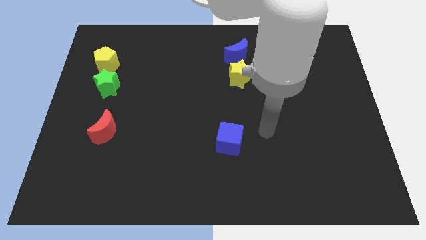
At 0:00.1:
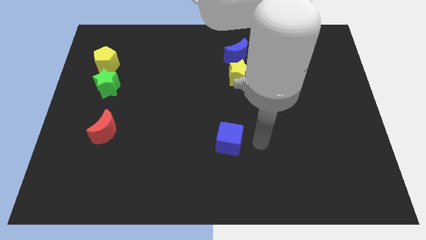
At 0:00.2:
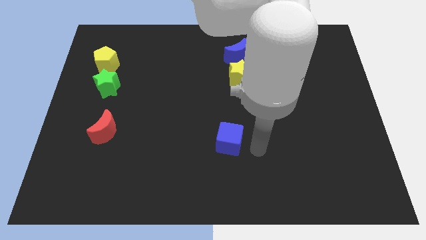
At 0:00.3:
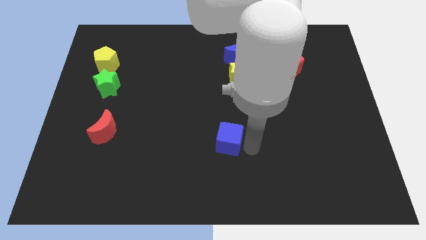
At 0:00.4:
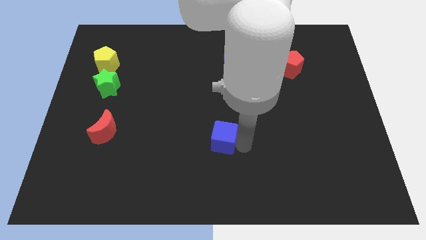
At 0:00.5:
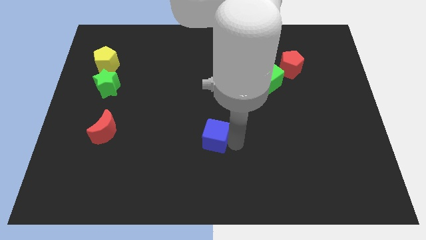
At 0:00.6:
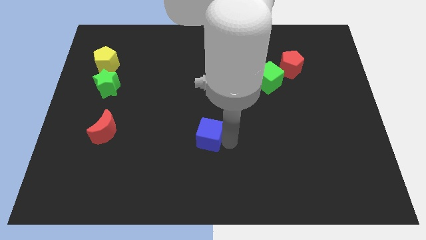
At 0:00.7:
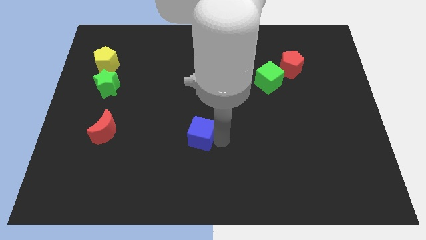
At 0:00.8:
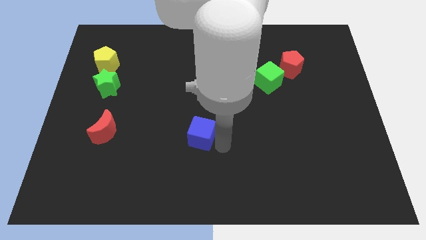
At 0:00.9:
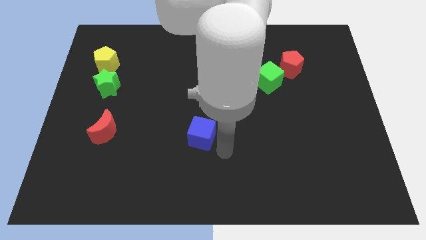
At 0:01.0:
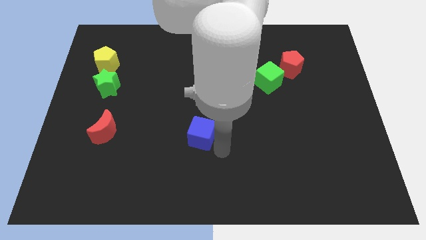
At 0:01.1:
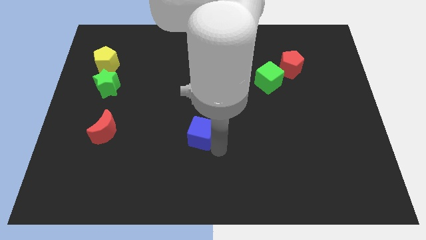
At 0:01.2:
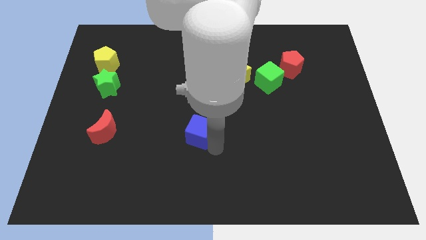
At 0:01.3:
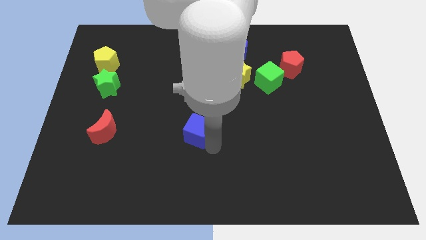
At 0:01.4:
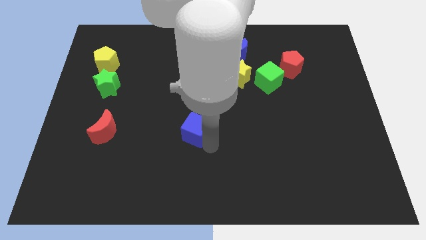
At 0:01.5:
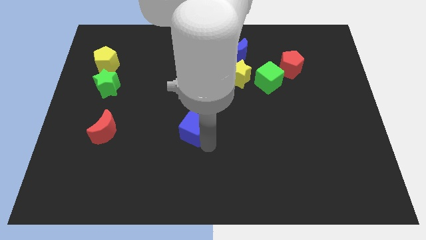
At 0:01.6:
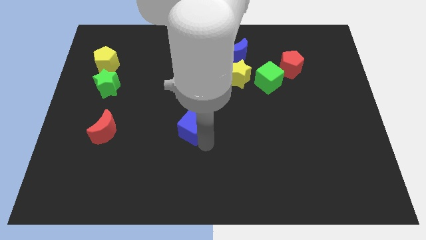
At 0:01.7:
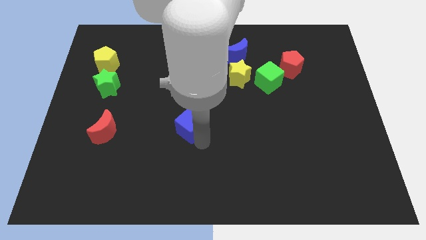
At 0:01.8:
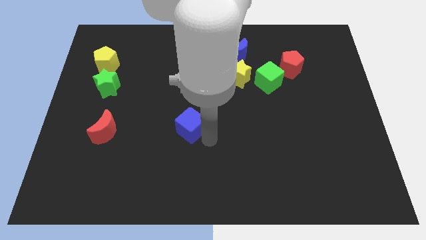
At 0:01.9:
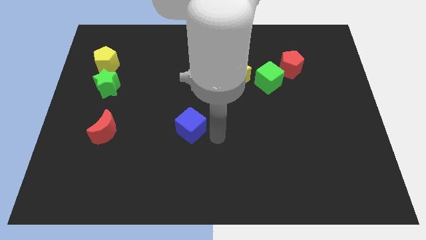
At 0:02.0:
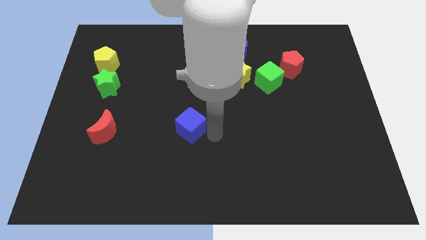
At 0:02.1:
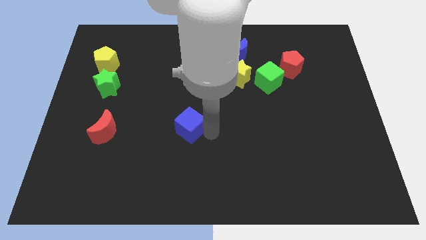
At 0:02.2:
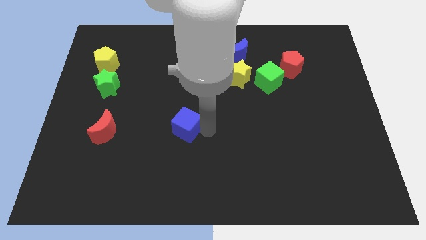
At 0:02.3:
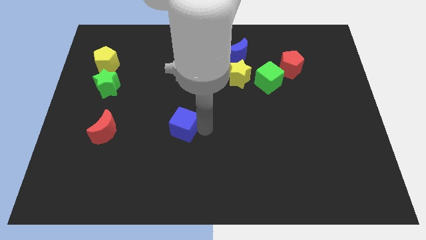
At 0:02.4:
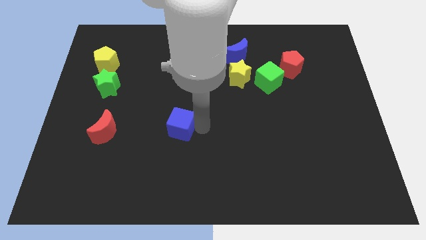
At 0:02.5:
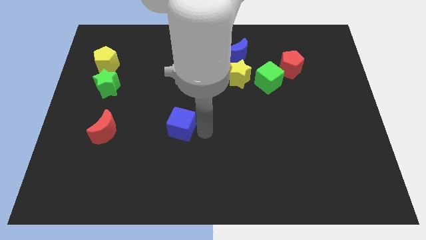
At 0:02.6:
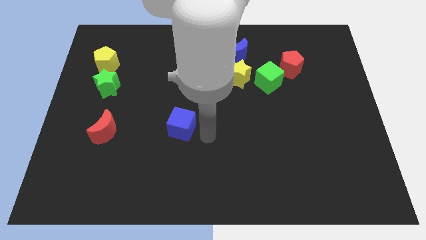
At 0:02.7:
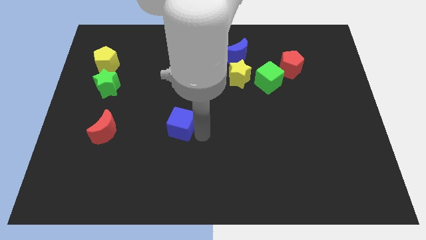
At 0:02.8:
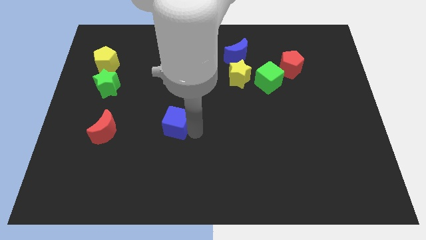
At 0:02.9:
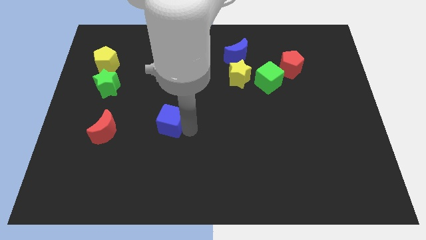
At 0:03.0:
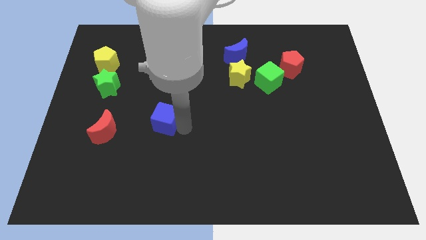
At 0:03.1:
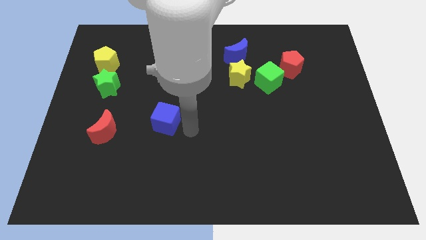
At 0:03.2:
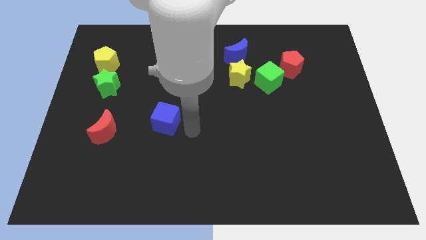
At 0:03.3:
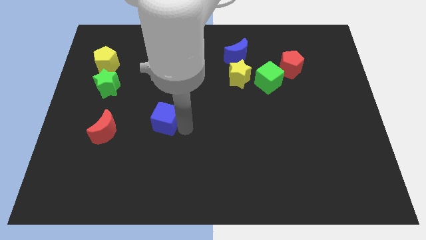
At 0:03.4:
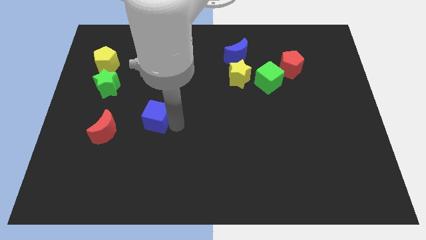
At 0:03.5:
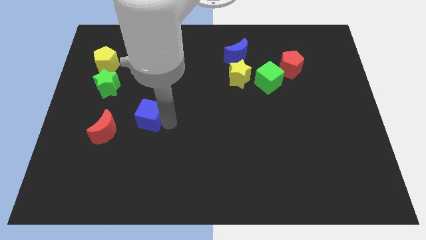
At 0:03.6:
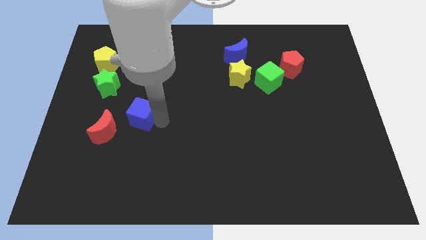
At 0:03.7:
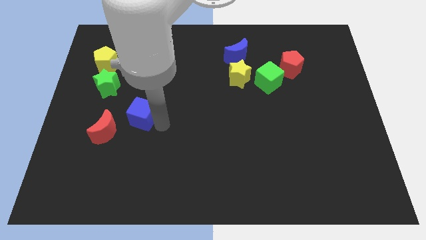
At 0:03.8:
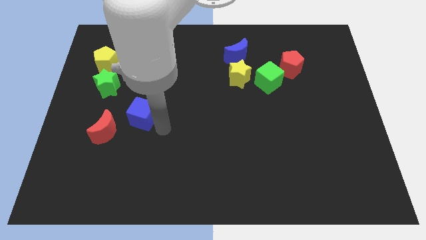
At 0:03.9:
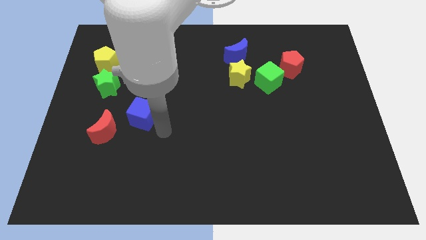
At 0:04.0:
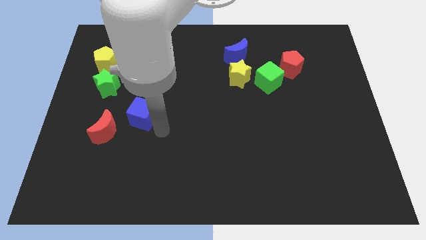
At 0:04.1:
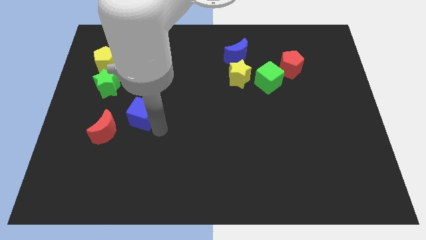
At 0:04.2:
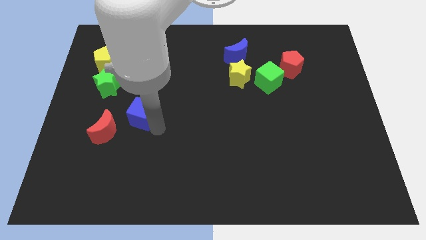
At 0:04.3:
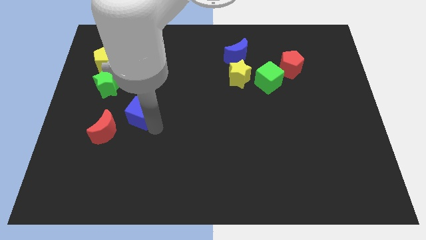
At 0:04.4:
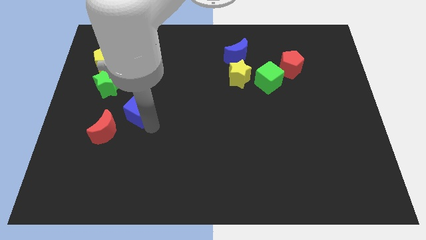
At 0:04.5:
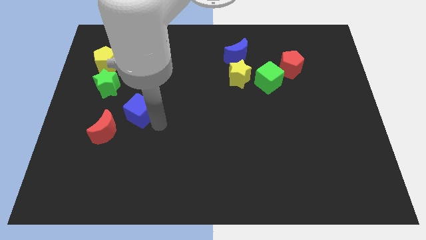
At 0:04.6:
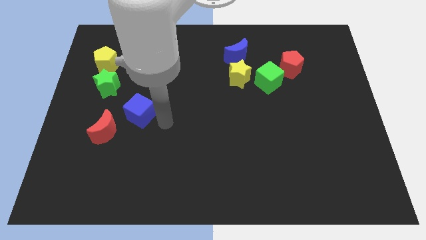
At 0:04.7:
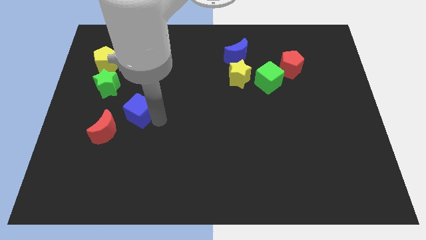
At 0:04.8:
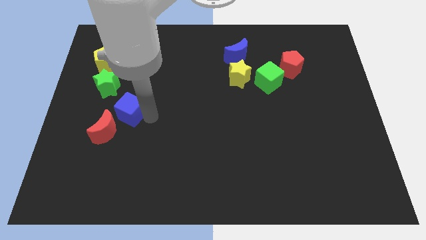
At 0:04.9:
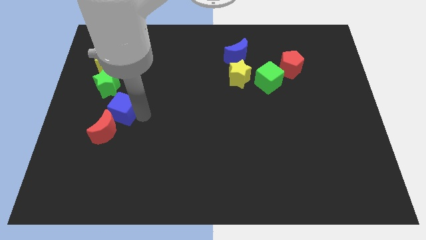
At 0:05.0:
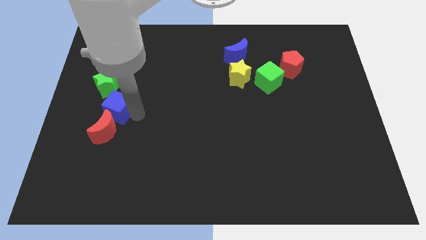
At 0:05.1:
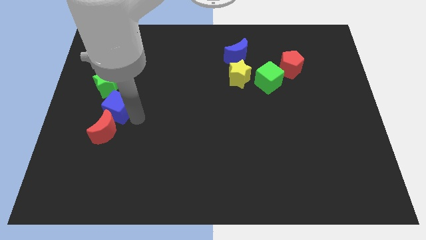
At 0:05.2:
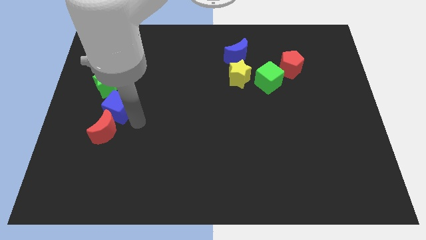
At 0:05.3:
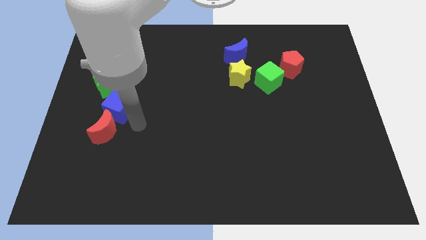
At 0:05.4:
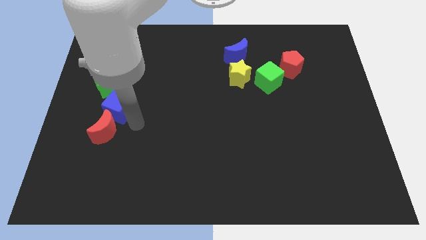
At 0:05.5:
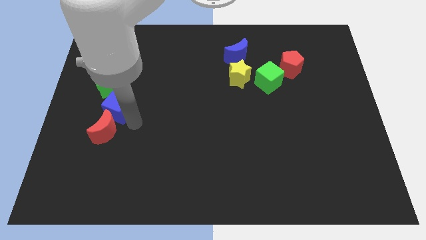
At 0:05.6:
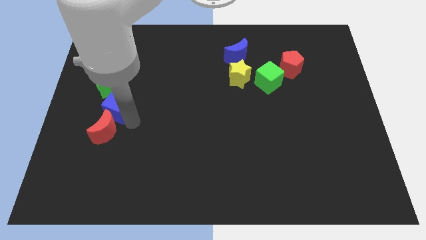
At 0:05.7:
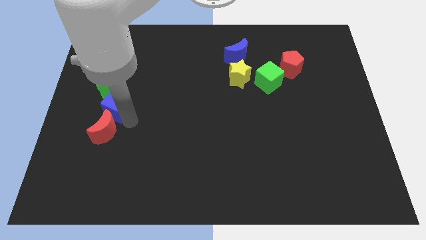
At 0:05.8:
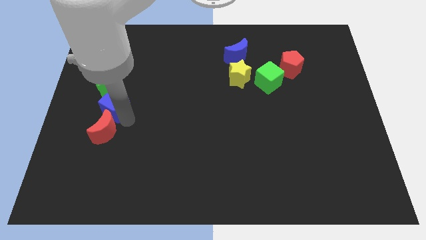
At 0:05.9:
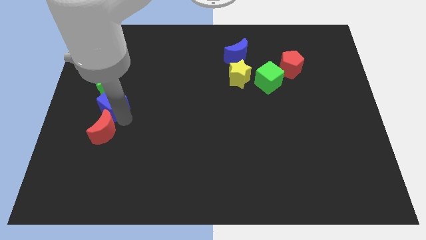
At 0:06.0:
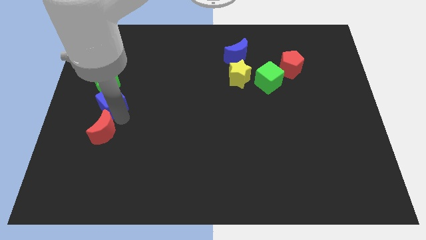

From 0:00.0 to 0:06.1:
push the blue cube to the bottom side of the yellow pentagon
